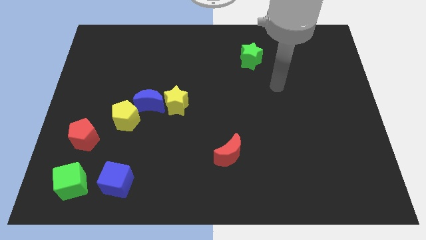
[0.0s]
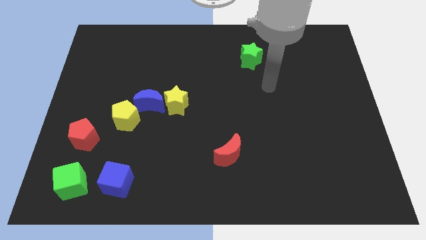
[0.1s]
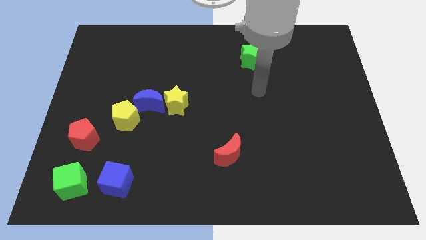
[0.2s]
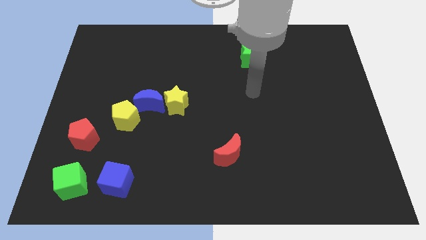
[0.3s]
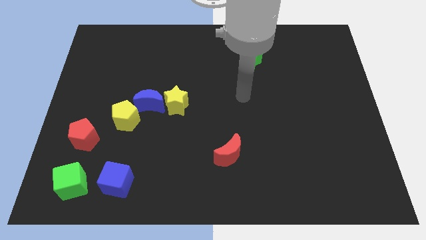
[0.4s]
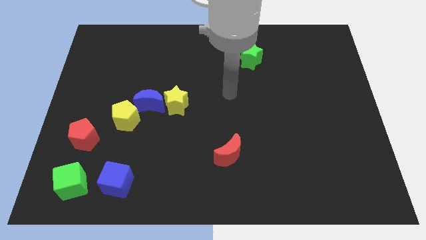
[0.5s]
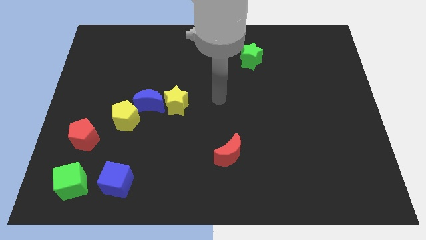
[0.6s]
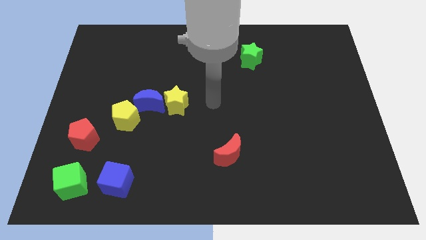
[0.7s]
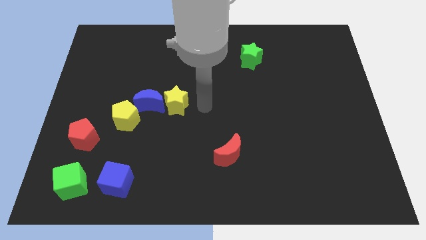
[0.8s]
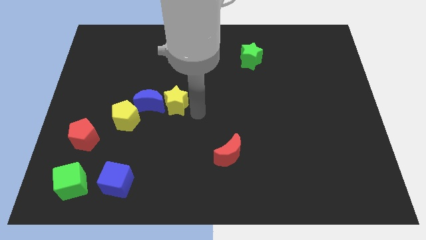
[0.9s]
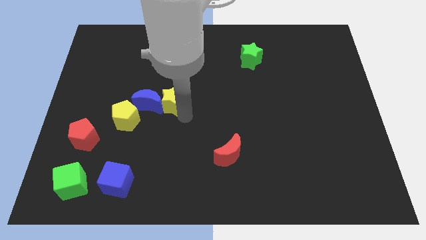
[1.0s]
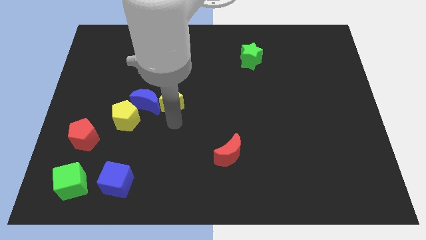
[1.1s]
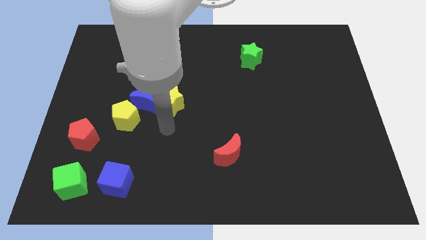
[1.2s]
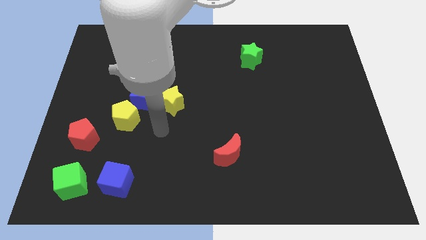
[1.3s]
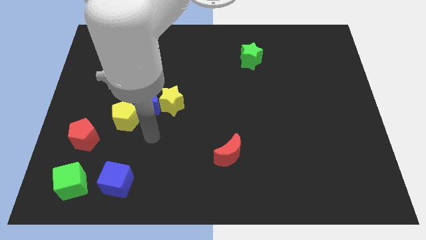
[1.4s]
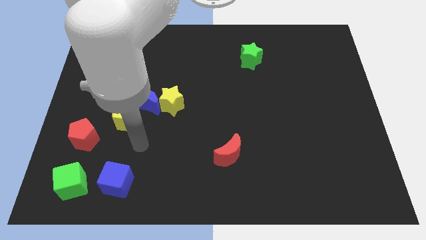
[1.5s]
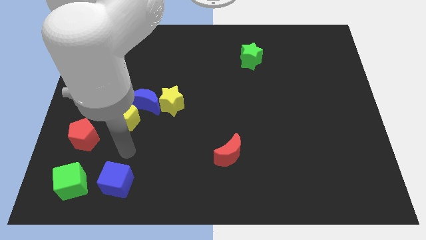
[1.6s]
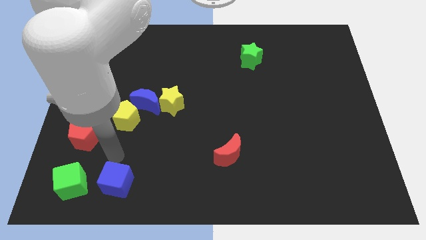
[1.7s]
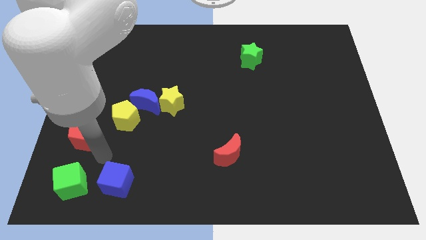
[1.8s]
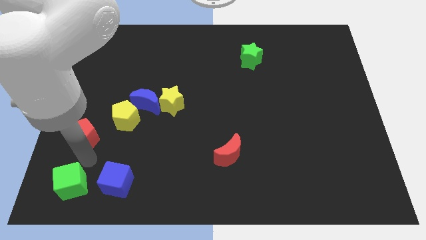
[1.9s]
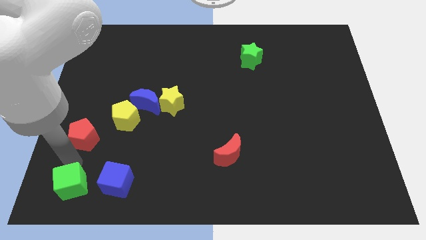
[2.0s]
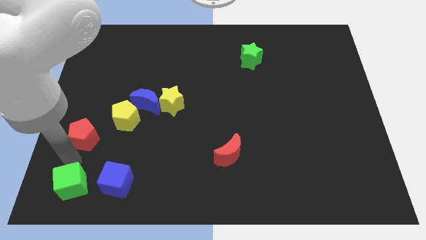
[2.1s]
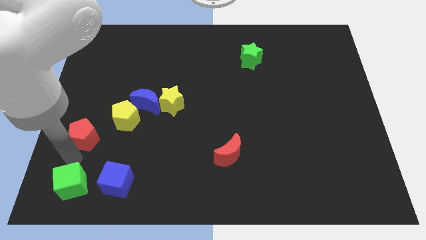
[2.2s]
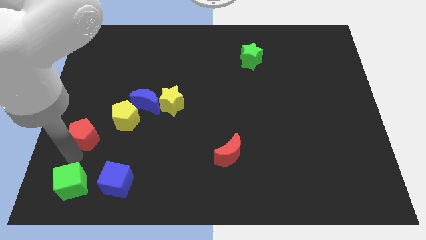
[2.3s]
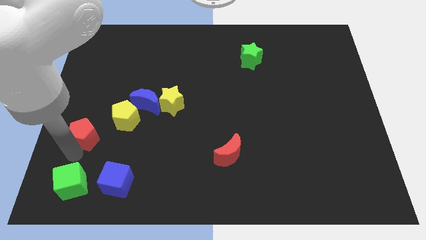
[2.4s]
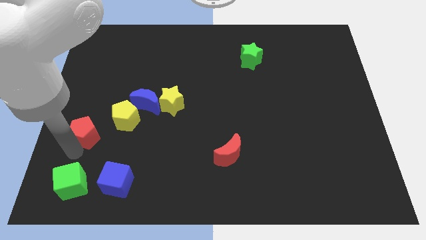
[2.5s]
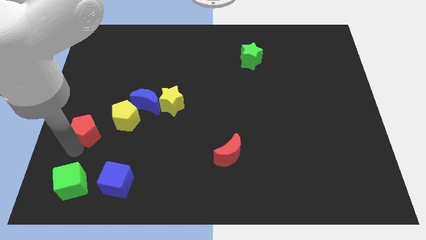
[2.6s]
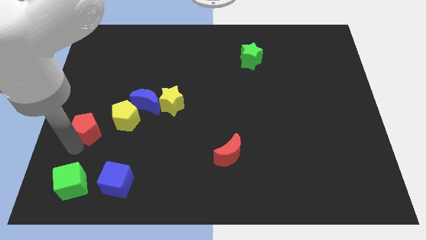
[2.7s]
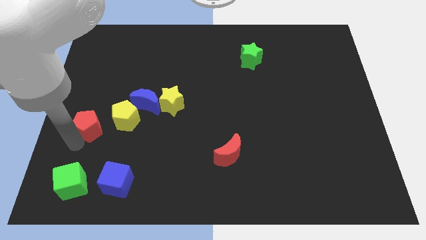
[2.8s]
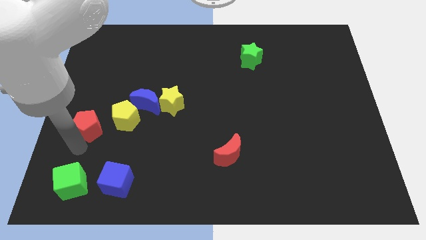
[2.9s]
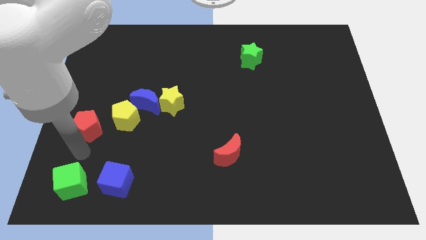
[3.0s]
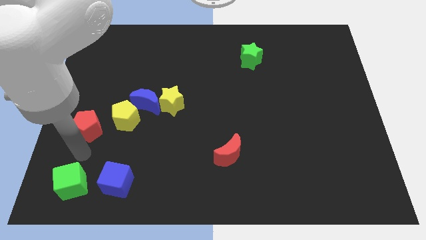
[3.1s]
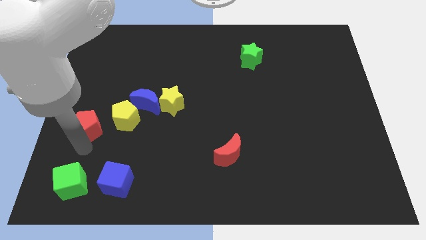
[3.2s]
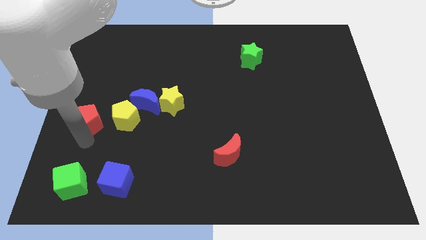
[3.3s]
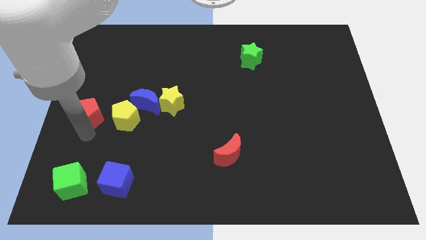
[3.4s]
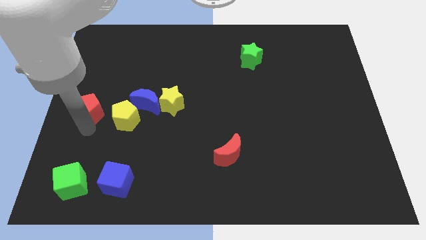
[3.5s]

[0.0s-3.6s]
push the red pentagon a little upwards

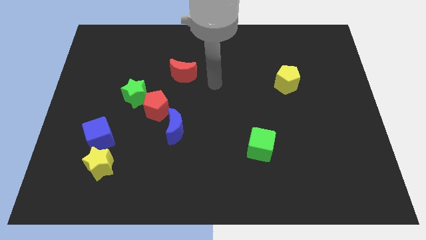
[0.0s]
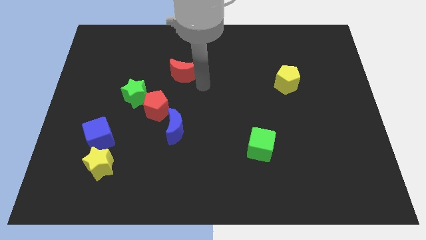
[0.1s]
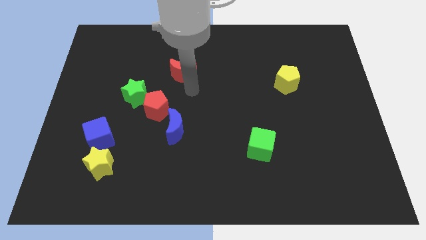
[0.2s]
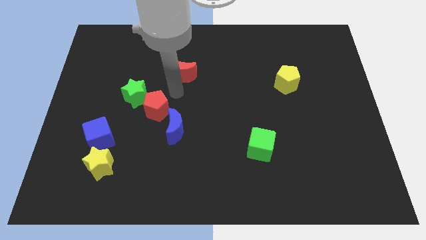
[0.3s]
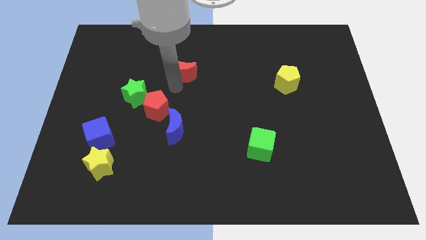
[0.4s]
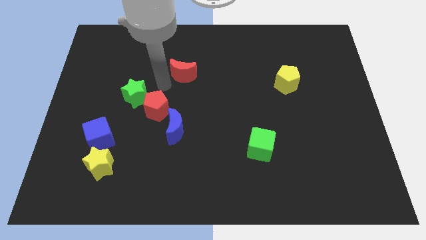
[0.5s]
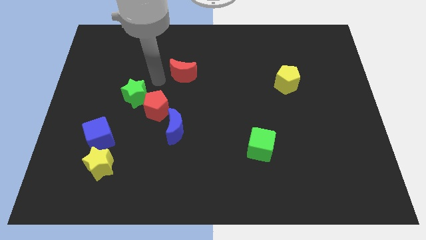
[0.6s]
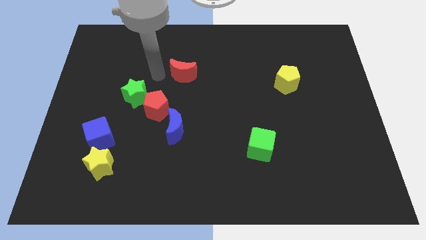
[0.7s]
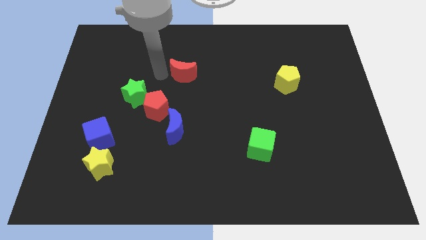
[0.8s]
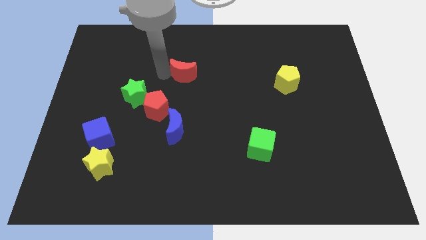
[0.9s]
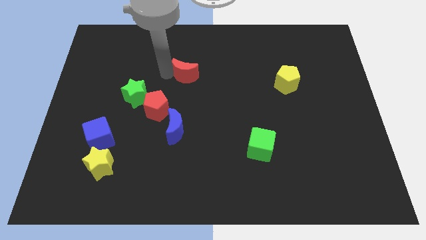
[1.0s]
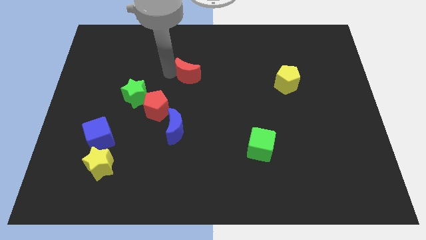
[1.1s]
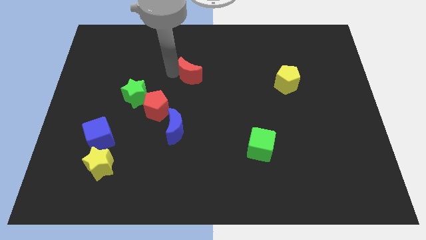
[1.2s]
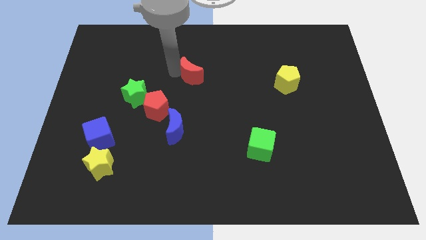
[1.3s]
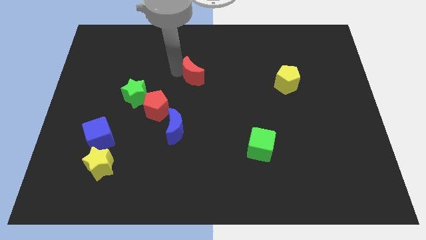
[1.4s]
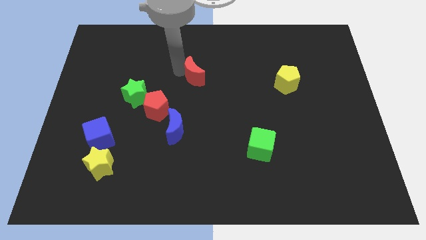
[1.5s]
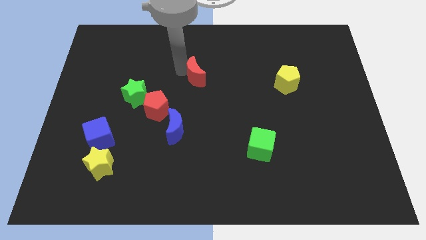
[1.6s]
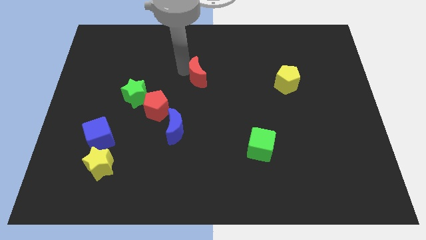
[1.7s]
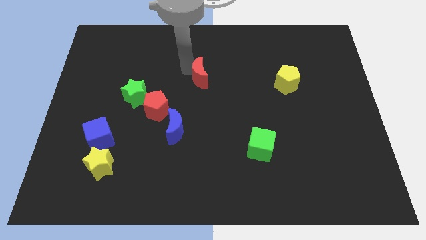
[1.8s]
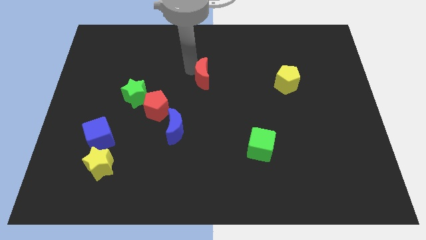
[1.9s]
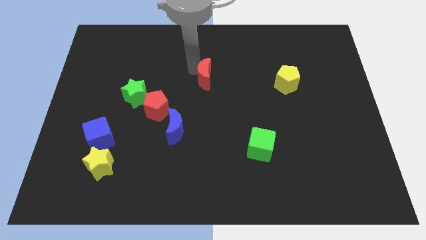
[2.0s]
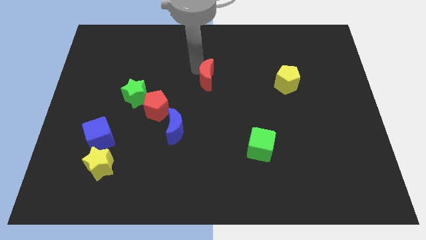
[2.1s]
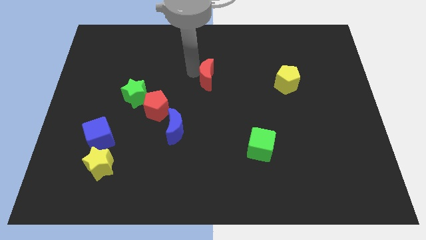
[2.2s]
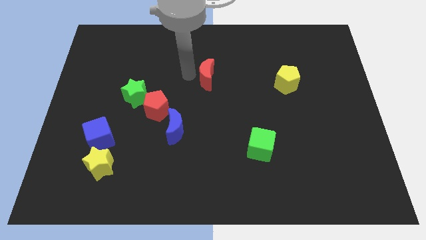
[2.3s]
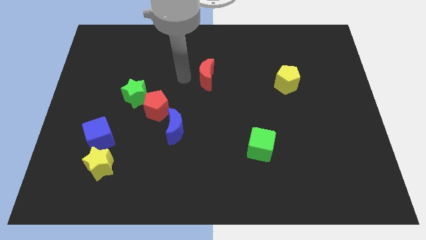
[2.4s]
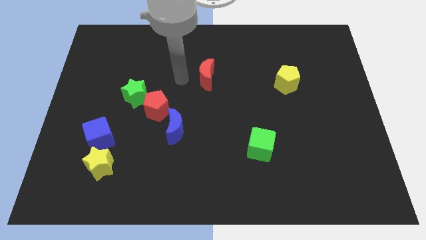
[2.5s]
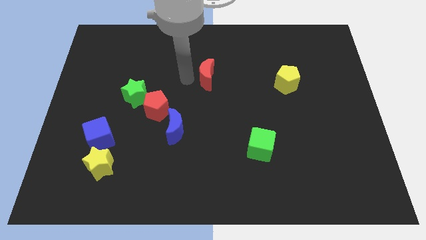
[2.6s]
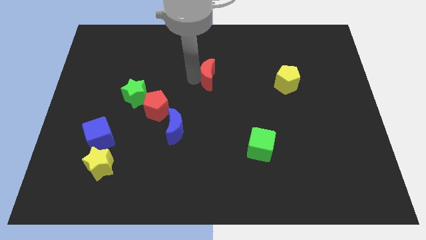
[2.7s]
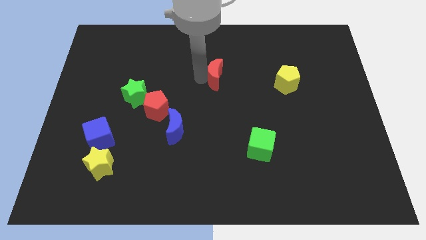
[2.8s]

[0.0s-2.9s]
slightly move the red moon right

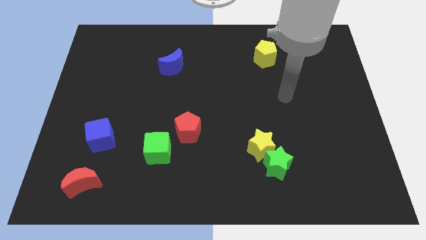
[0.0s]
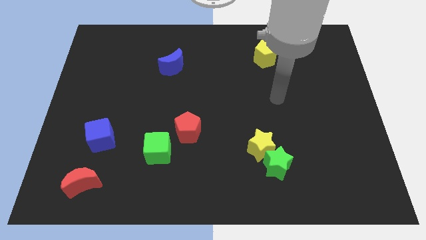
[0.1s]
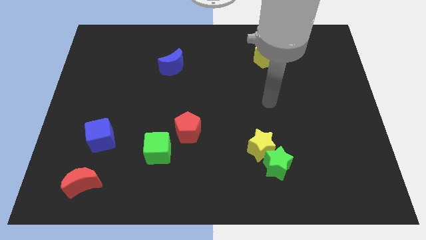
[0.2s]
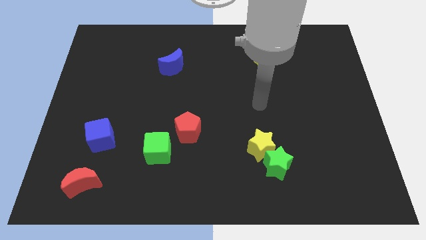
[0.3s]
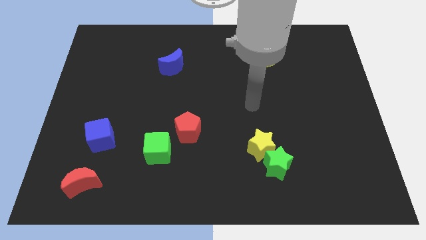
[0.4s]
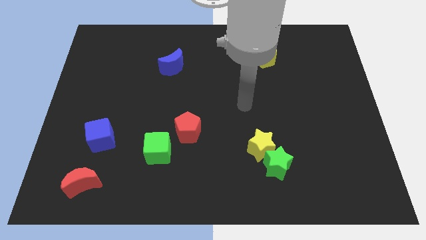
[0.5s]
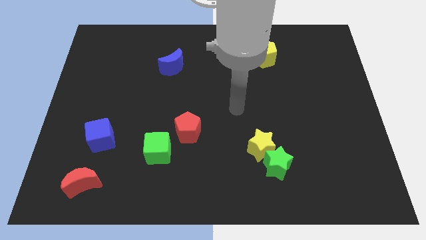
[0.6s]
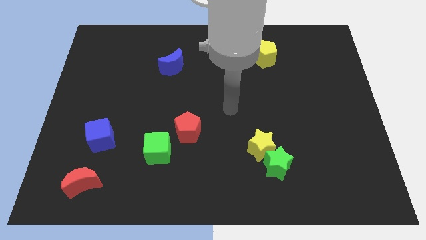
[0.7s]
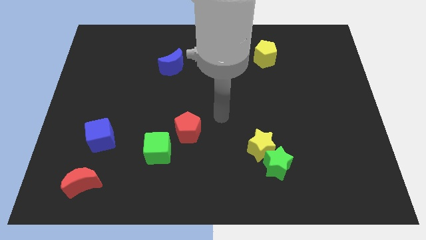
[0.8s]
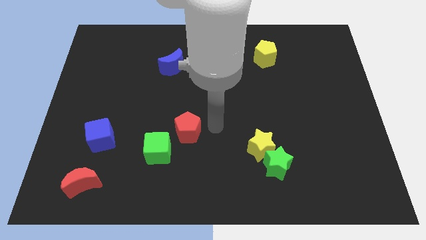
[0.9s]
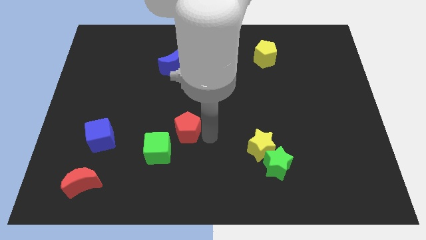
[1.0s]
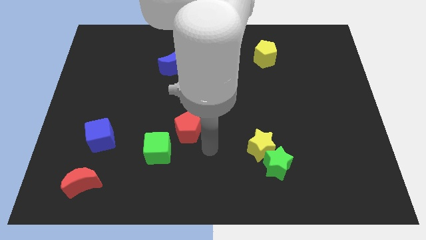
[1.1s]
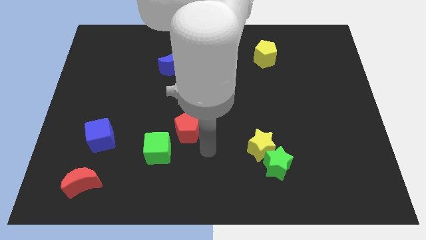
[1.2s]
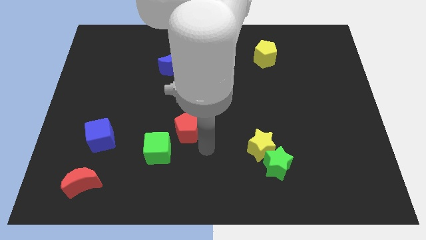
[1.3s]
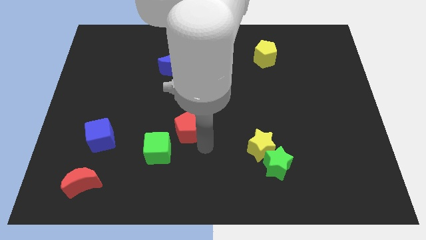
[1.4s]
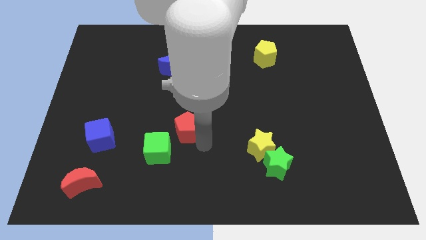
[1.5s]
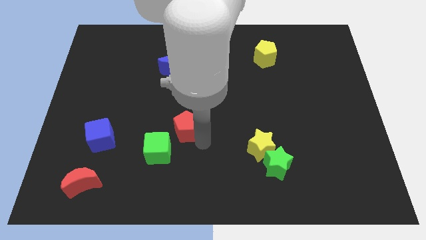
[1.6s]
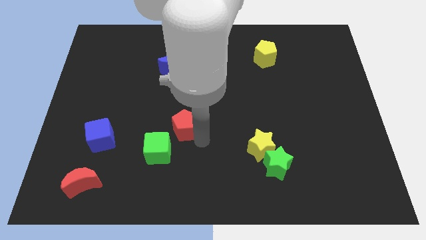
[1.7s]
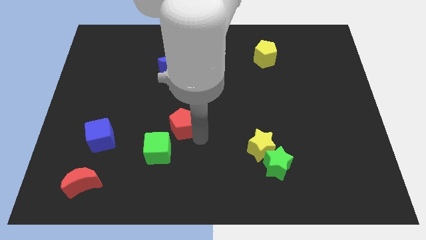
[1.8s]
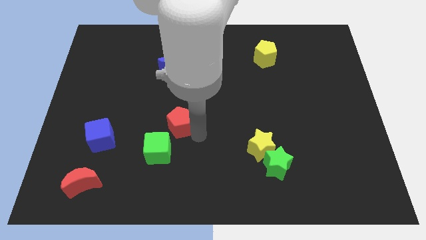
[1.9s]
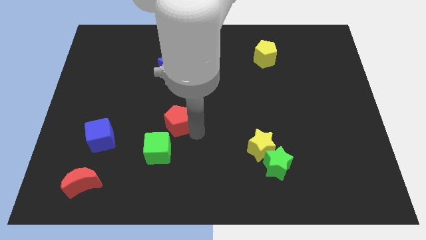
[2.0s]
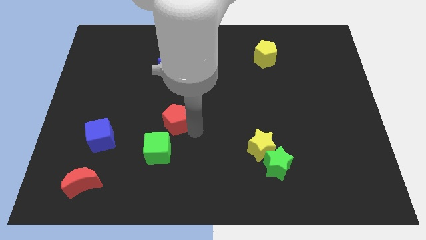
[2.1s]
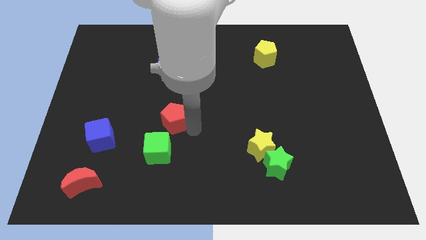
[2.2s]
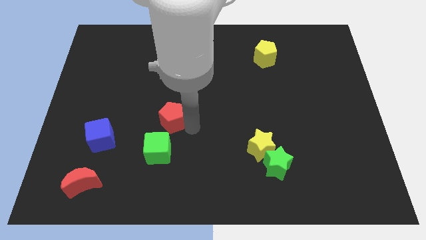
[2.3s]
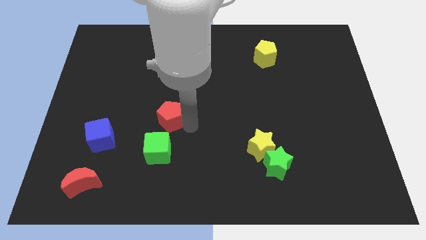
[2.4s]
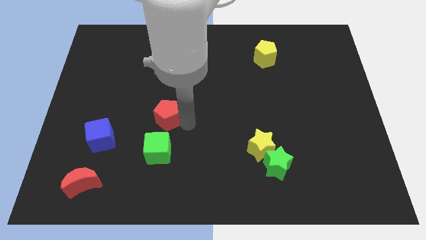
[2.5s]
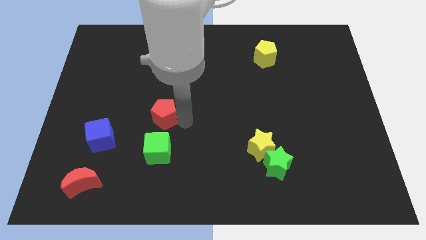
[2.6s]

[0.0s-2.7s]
push the red pentagon a little bit up and left diagonally
